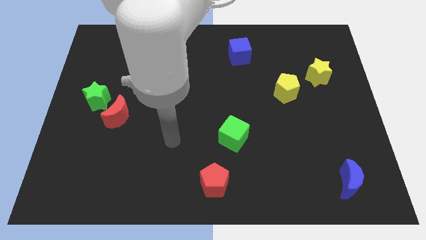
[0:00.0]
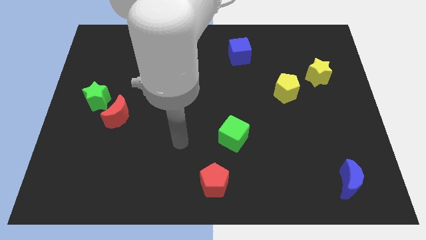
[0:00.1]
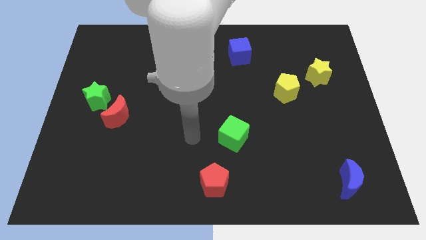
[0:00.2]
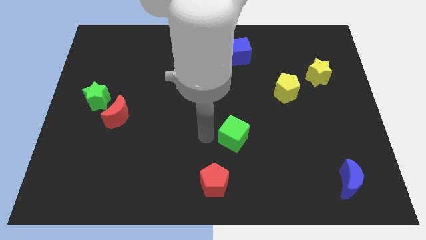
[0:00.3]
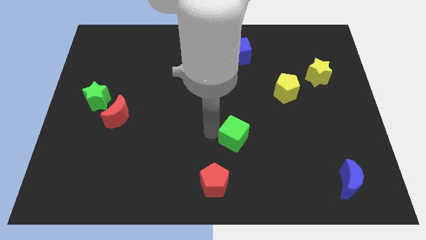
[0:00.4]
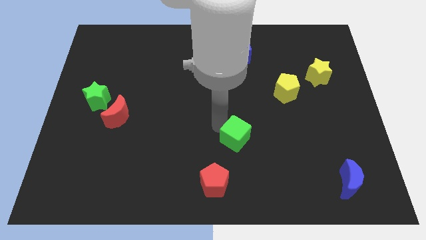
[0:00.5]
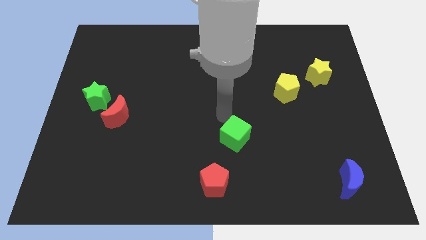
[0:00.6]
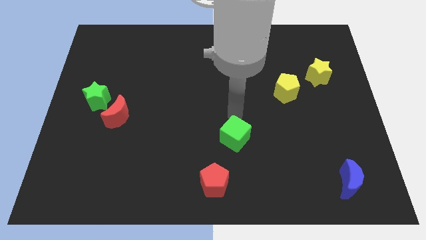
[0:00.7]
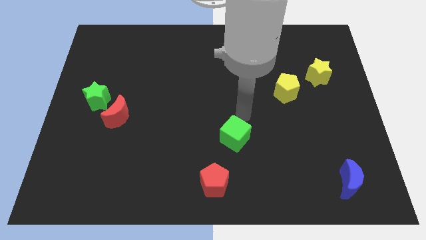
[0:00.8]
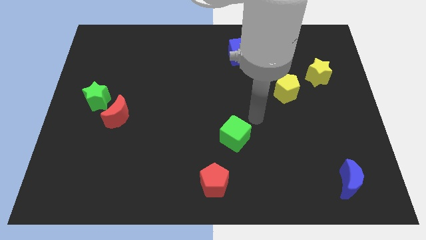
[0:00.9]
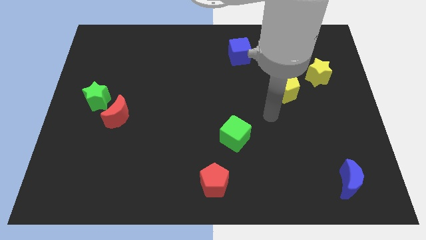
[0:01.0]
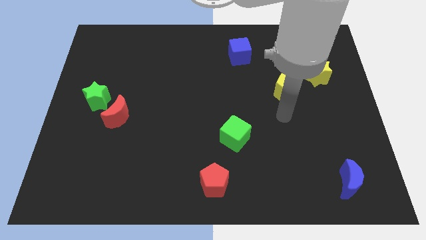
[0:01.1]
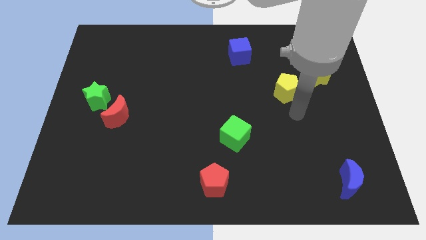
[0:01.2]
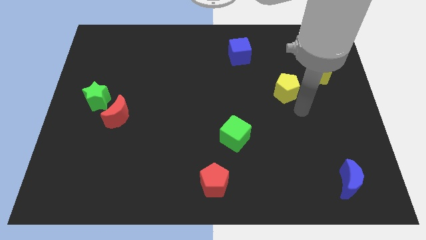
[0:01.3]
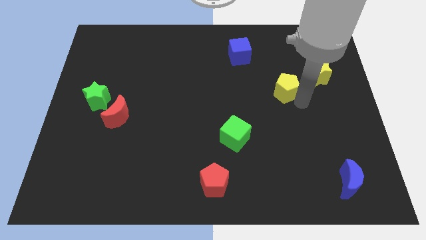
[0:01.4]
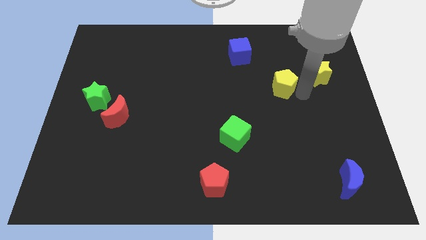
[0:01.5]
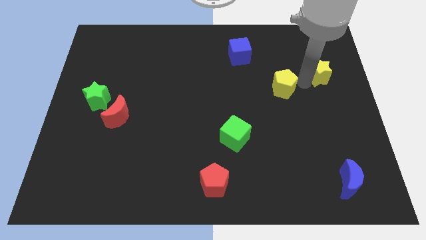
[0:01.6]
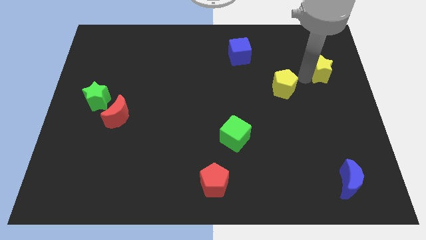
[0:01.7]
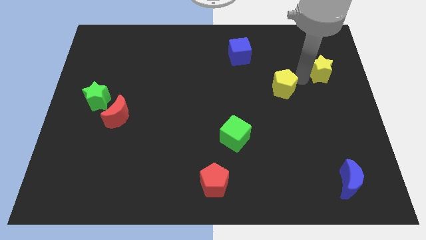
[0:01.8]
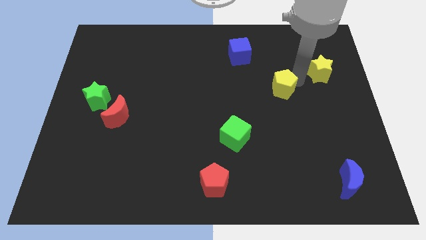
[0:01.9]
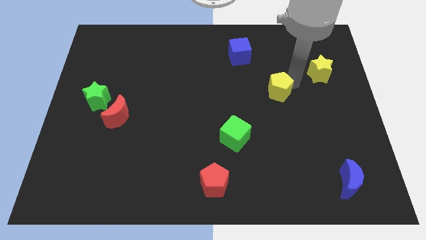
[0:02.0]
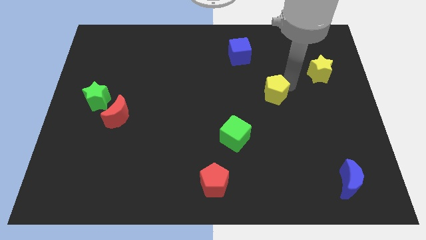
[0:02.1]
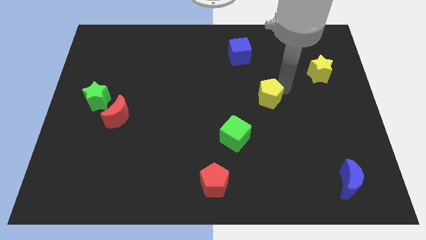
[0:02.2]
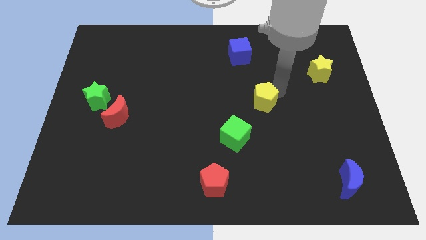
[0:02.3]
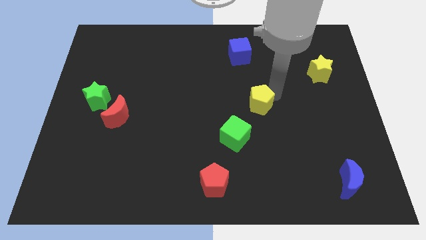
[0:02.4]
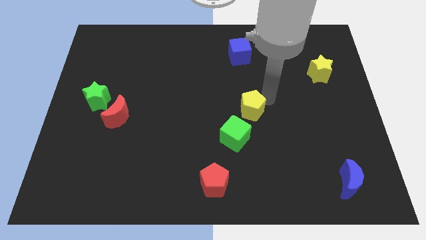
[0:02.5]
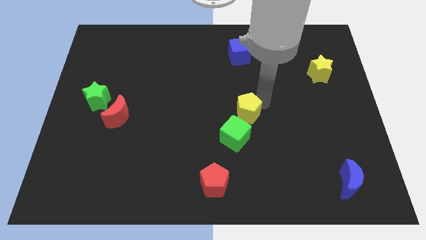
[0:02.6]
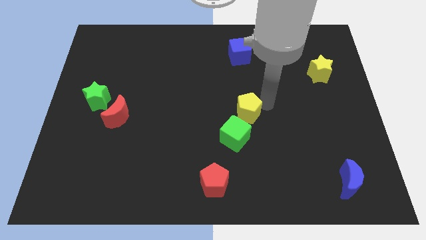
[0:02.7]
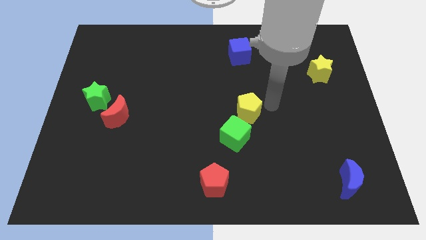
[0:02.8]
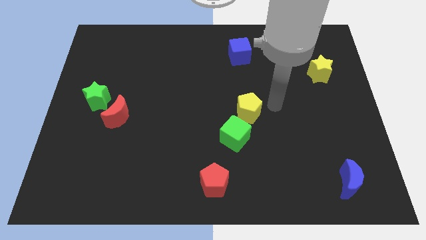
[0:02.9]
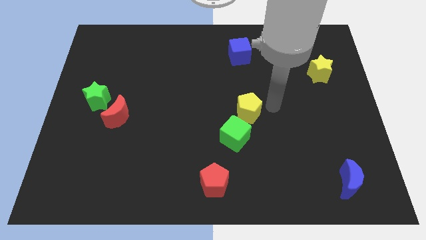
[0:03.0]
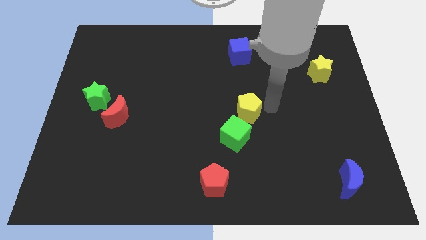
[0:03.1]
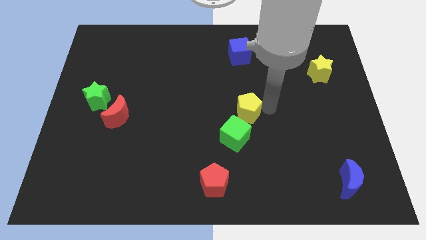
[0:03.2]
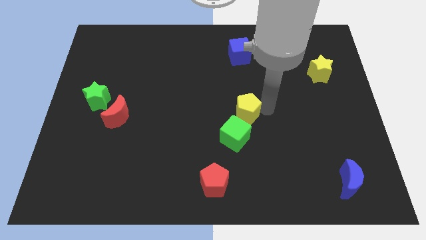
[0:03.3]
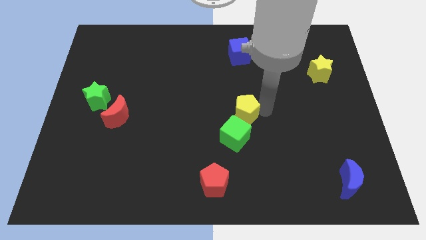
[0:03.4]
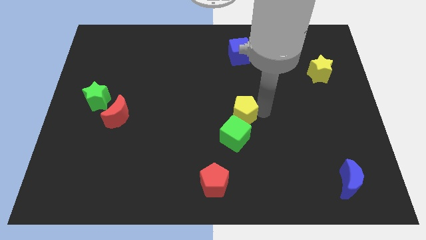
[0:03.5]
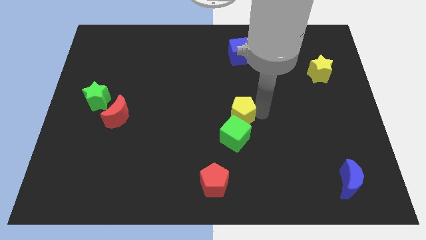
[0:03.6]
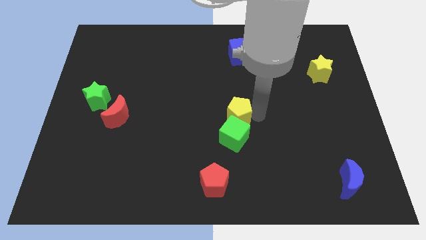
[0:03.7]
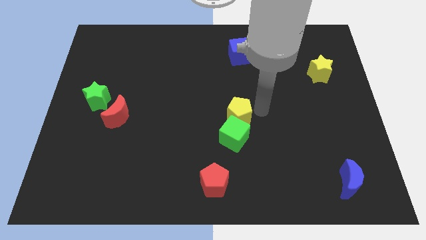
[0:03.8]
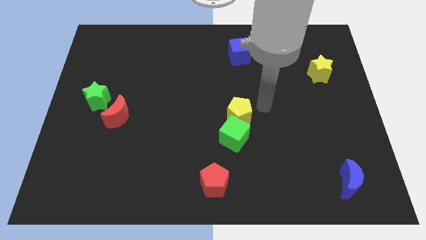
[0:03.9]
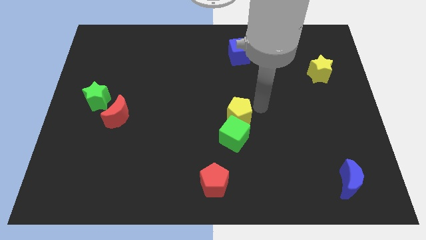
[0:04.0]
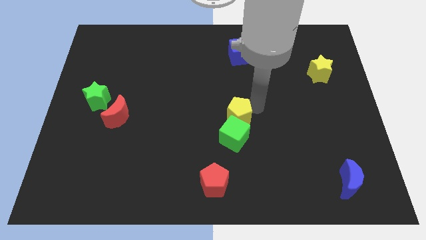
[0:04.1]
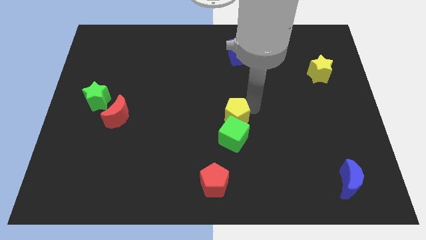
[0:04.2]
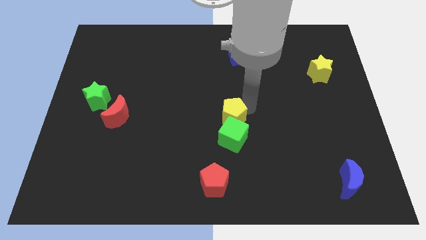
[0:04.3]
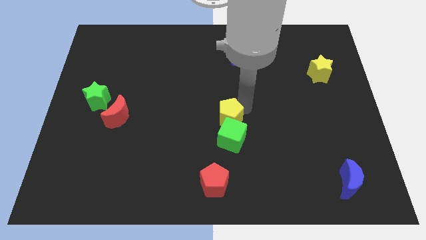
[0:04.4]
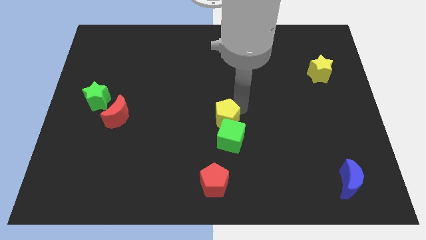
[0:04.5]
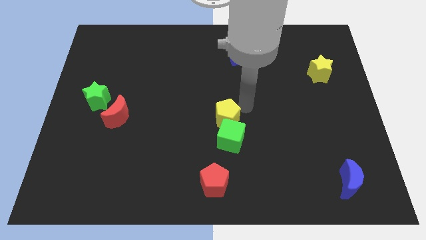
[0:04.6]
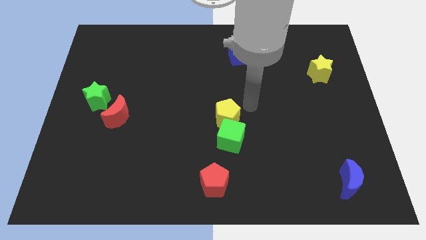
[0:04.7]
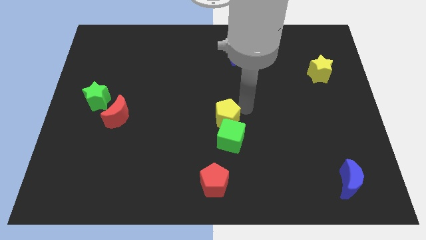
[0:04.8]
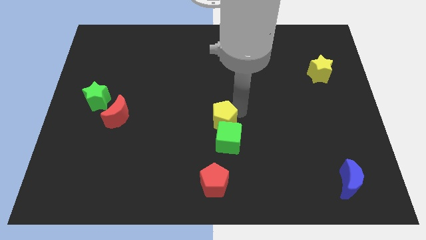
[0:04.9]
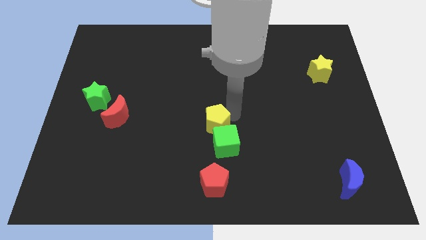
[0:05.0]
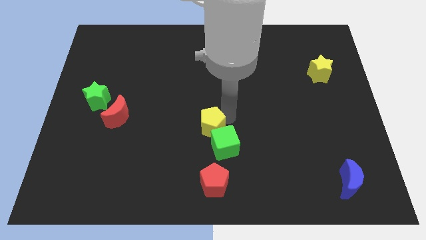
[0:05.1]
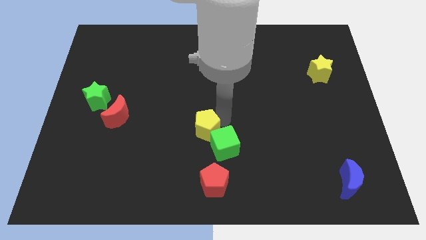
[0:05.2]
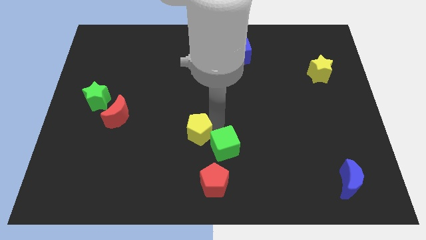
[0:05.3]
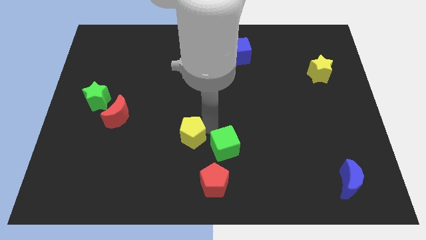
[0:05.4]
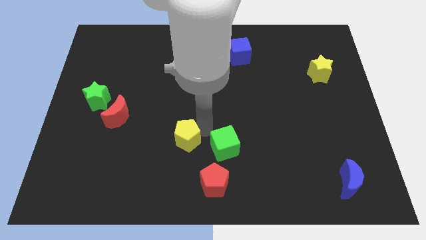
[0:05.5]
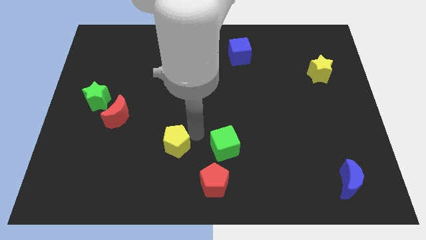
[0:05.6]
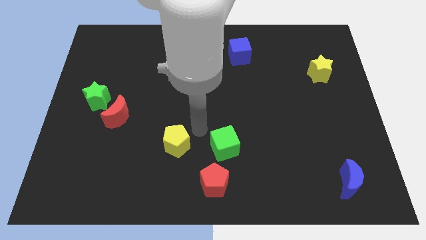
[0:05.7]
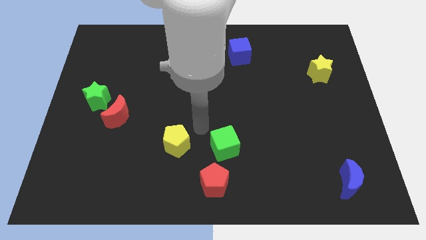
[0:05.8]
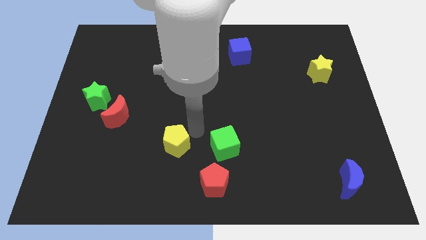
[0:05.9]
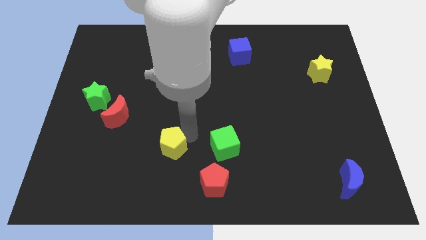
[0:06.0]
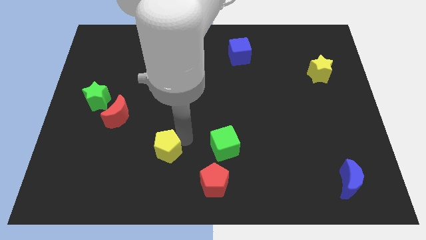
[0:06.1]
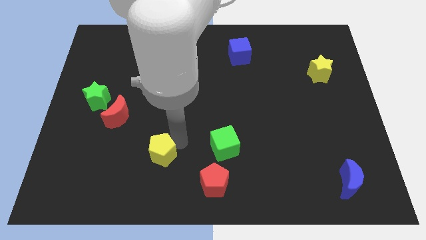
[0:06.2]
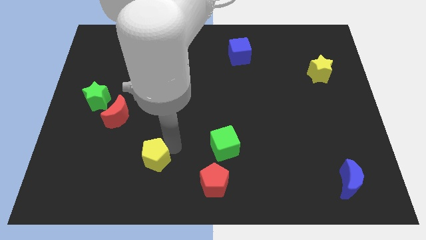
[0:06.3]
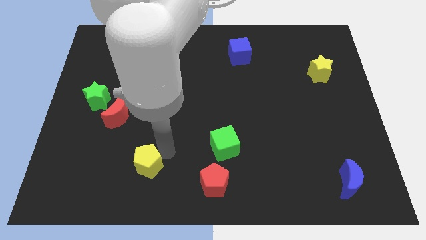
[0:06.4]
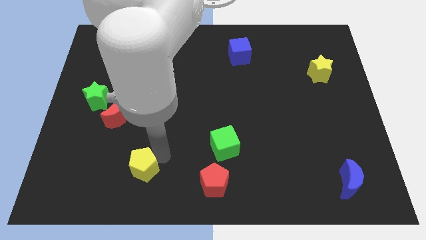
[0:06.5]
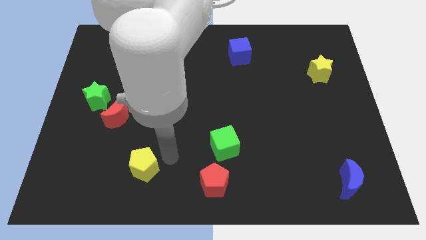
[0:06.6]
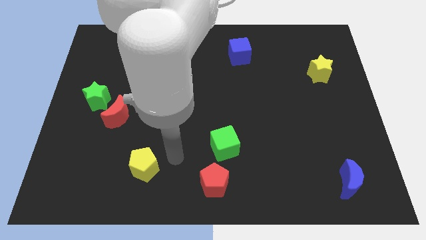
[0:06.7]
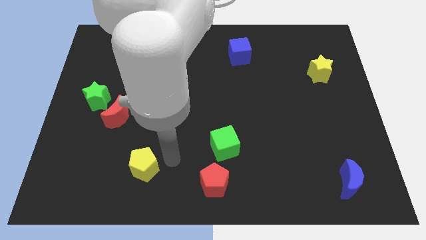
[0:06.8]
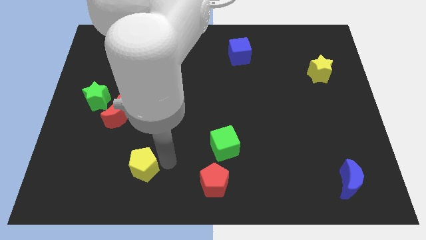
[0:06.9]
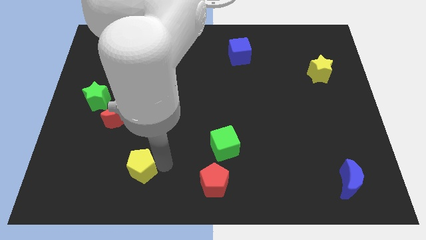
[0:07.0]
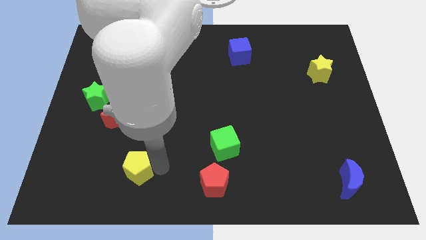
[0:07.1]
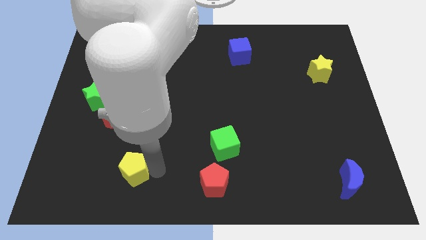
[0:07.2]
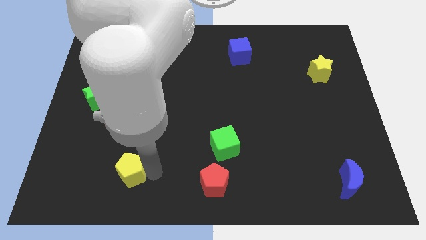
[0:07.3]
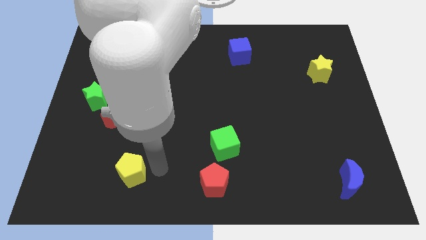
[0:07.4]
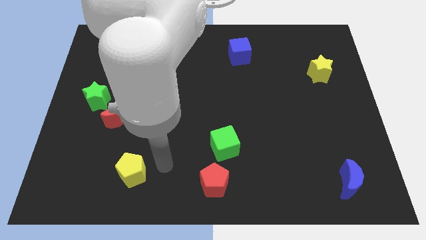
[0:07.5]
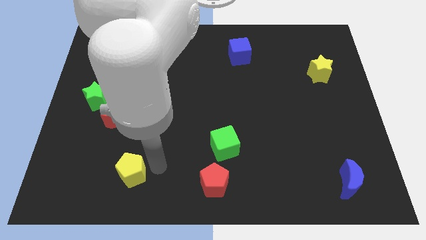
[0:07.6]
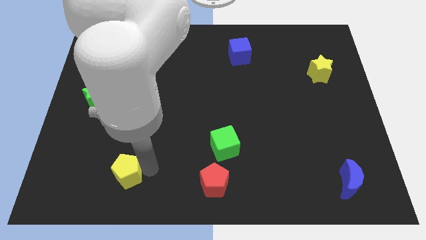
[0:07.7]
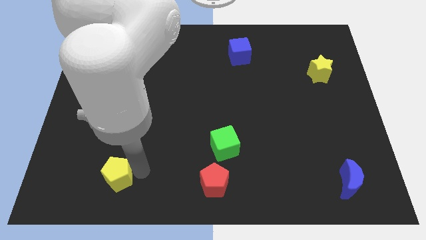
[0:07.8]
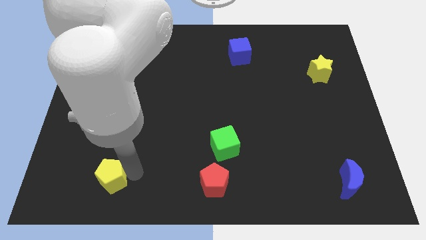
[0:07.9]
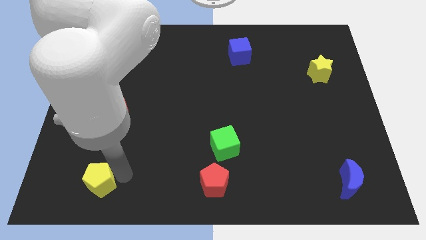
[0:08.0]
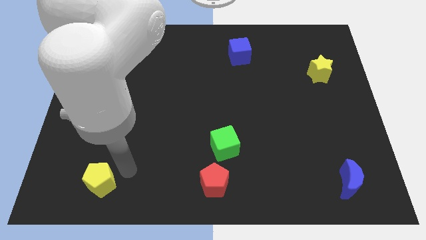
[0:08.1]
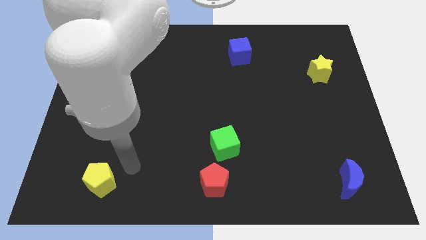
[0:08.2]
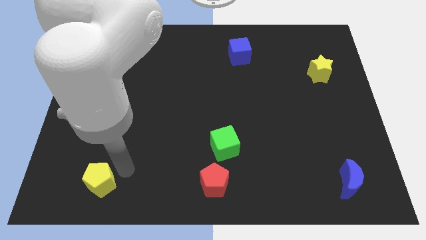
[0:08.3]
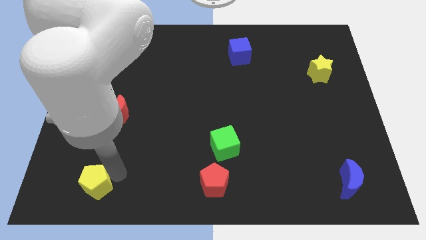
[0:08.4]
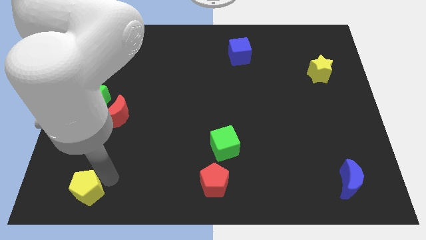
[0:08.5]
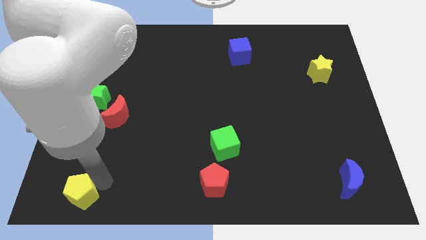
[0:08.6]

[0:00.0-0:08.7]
push the yellow pentagon to the bottom left
